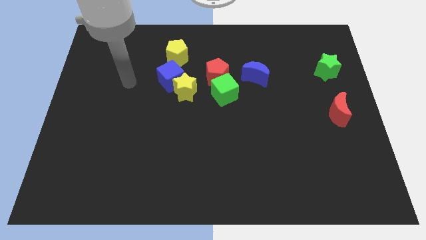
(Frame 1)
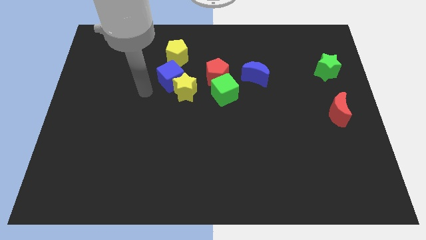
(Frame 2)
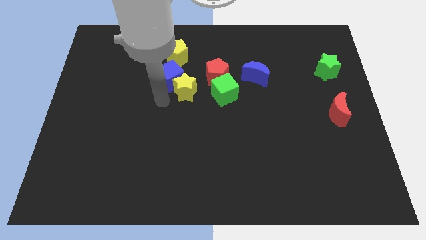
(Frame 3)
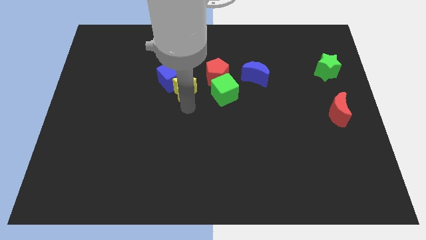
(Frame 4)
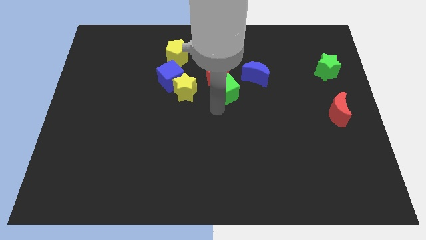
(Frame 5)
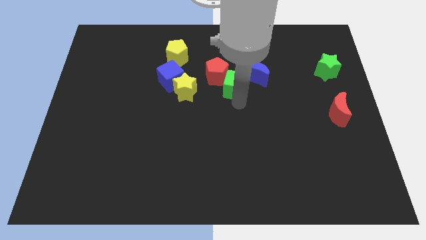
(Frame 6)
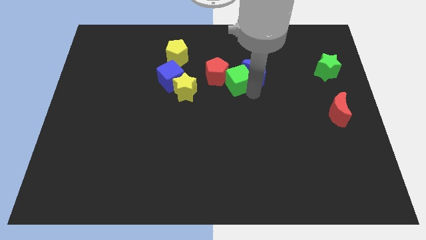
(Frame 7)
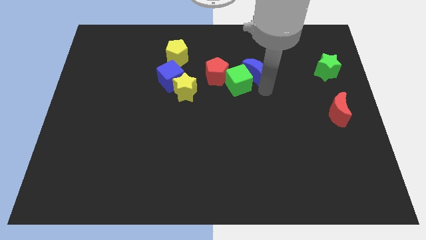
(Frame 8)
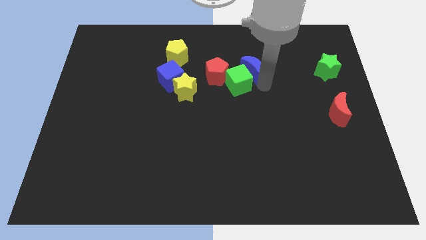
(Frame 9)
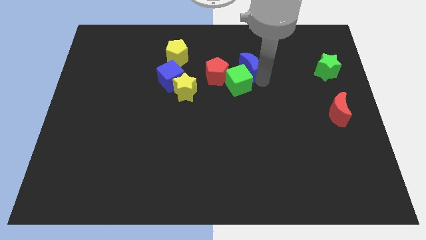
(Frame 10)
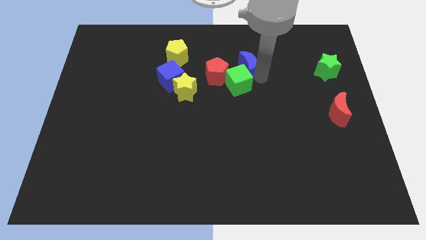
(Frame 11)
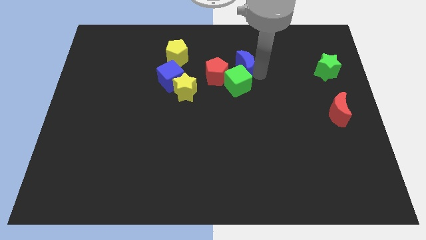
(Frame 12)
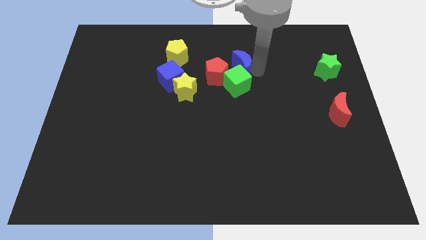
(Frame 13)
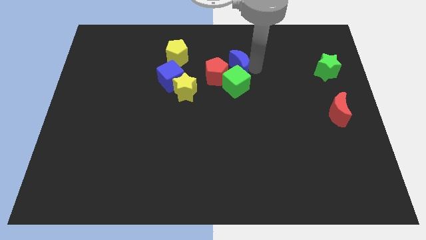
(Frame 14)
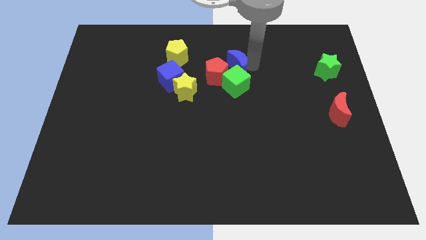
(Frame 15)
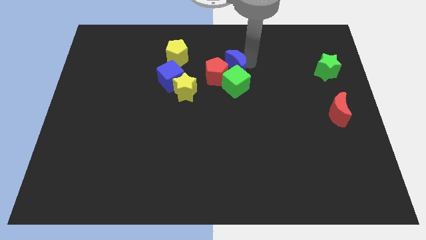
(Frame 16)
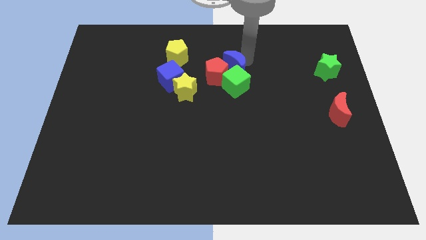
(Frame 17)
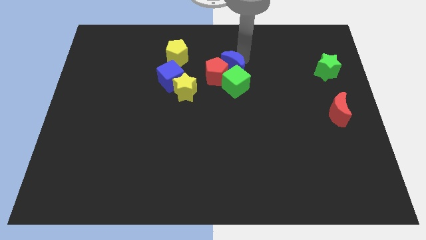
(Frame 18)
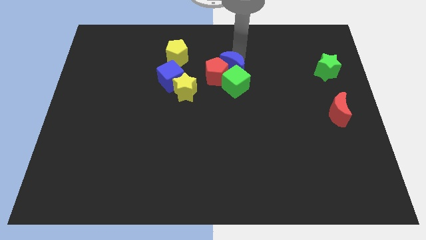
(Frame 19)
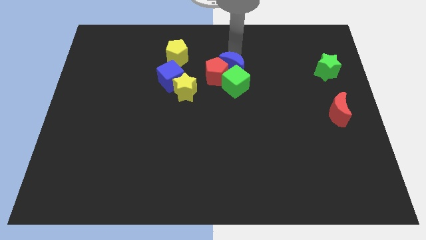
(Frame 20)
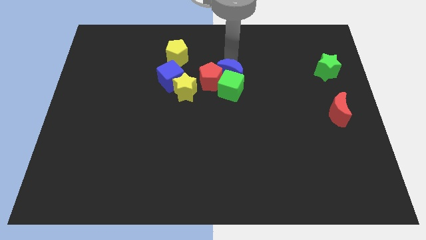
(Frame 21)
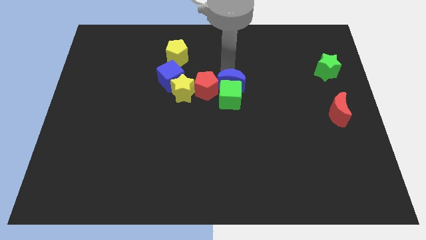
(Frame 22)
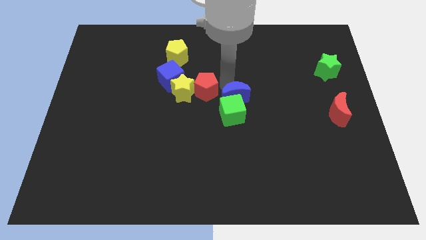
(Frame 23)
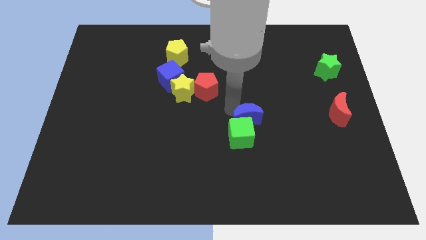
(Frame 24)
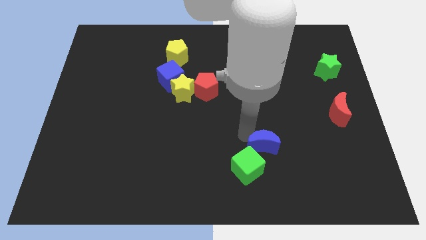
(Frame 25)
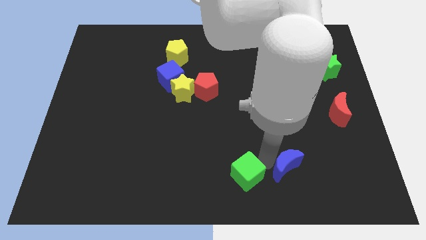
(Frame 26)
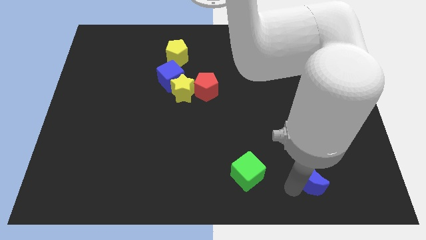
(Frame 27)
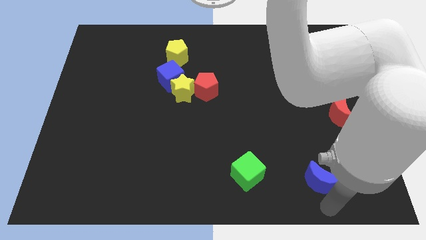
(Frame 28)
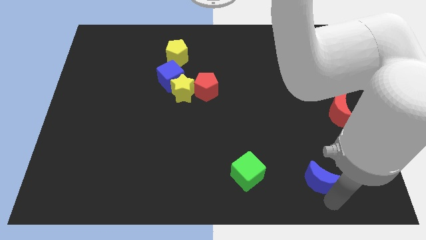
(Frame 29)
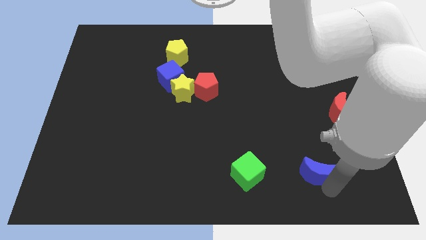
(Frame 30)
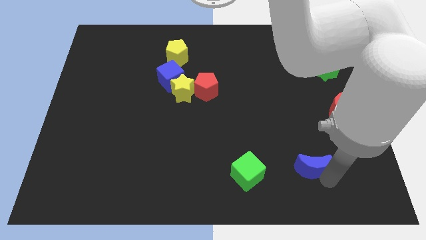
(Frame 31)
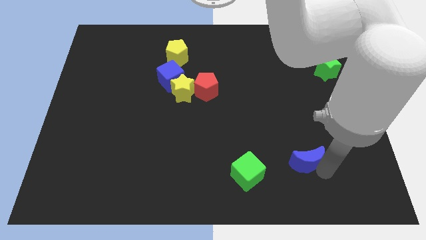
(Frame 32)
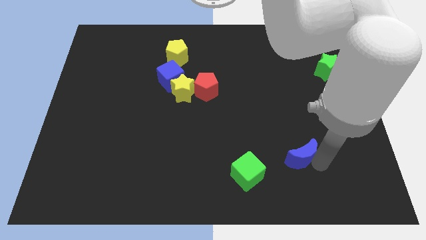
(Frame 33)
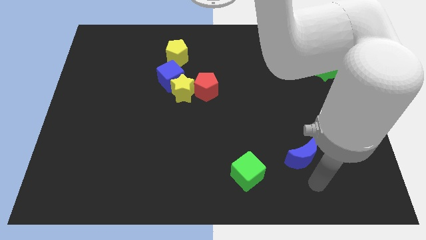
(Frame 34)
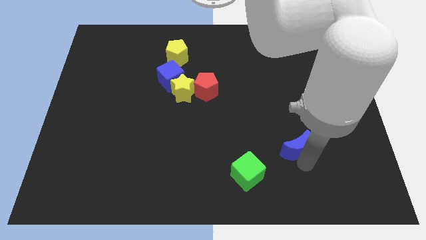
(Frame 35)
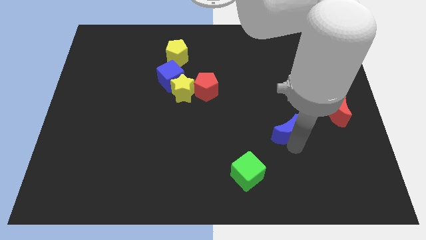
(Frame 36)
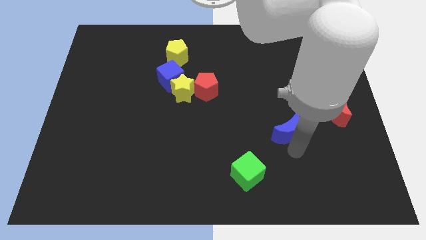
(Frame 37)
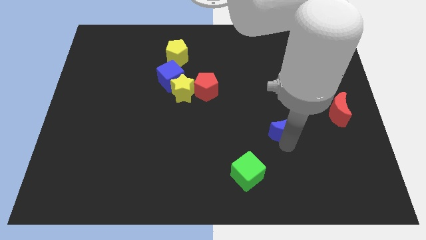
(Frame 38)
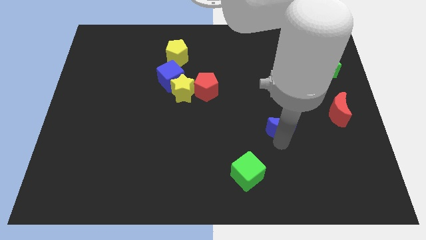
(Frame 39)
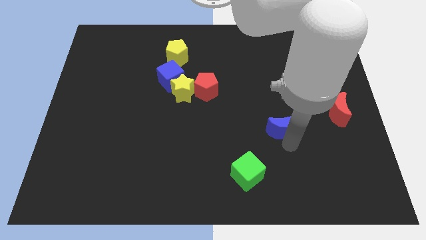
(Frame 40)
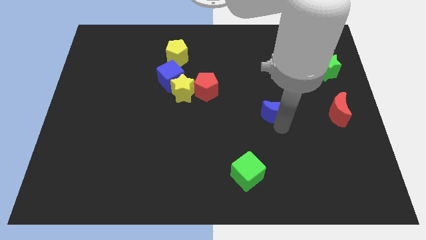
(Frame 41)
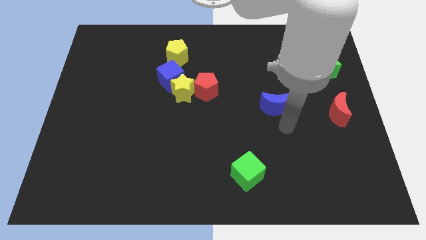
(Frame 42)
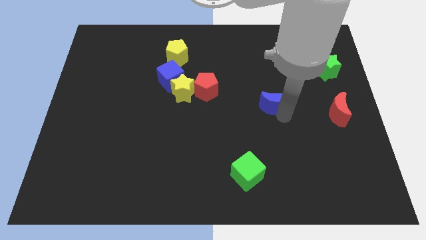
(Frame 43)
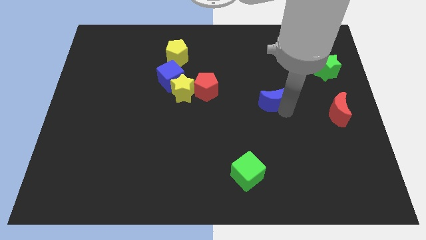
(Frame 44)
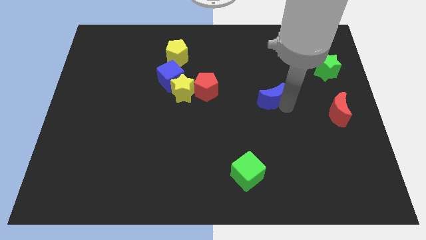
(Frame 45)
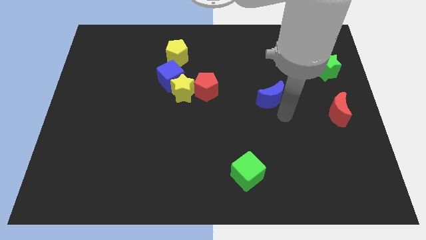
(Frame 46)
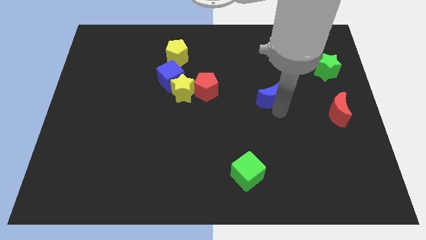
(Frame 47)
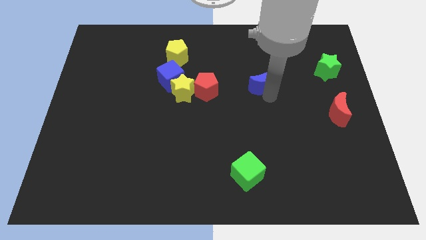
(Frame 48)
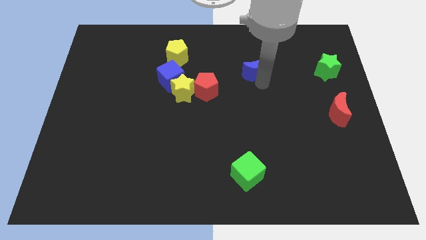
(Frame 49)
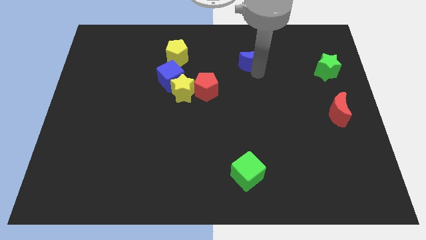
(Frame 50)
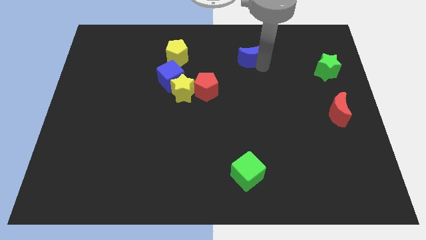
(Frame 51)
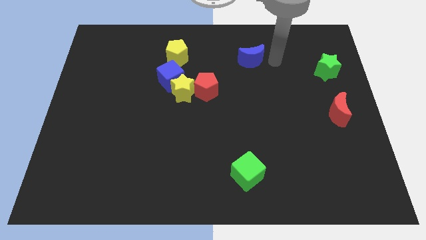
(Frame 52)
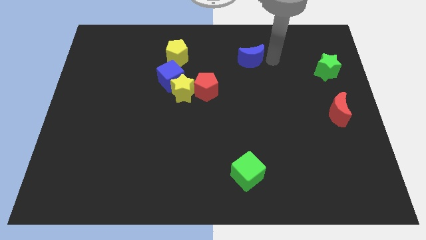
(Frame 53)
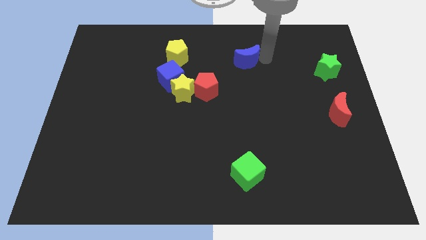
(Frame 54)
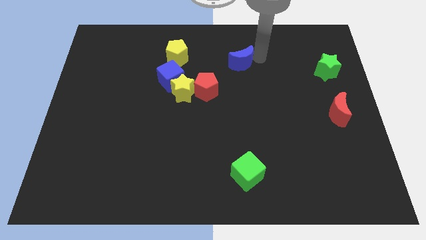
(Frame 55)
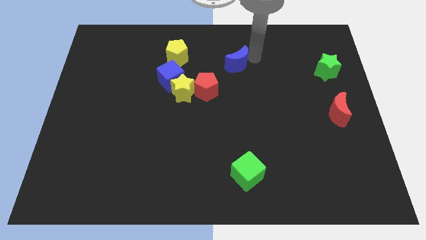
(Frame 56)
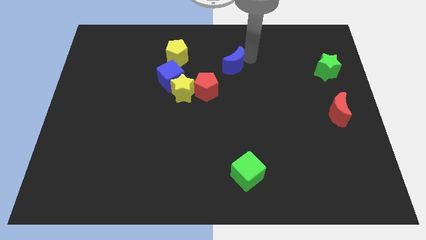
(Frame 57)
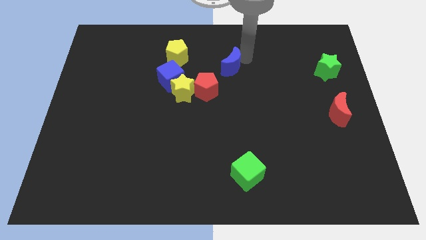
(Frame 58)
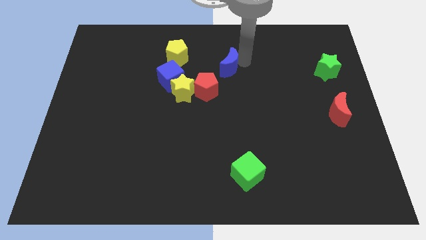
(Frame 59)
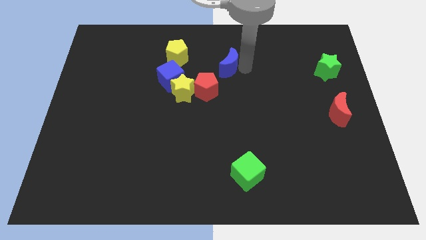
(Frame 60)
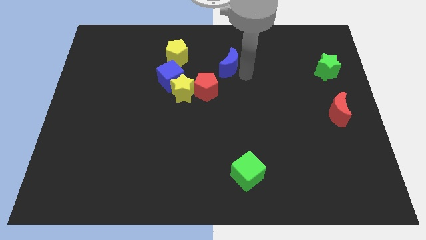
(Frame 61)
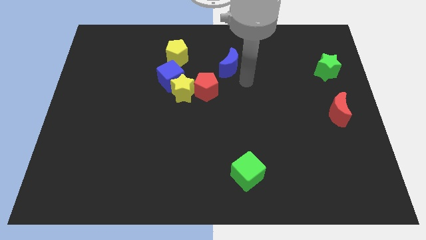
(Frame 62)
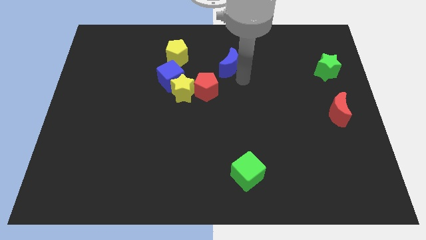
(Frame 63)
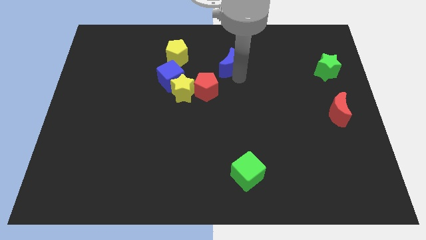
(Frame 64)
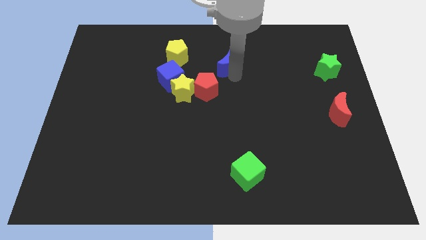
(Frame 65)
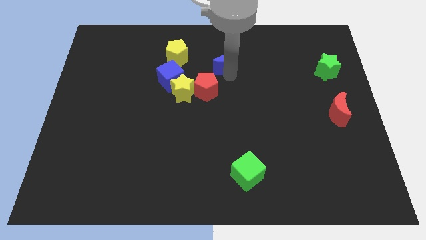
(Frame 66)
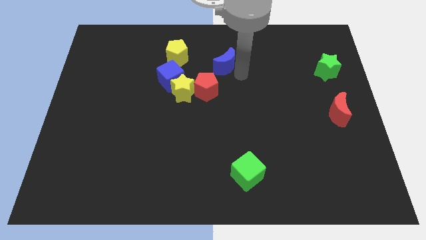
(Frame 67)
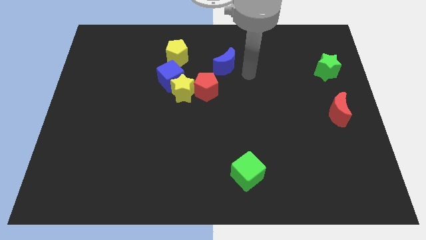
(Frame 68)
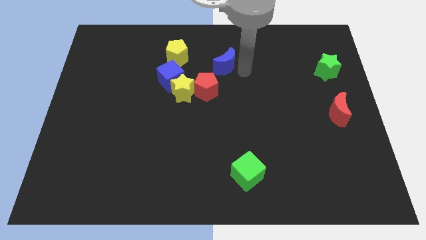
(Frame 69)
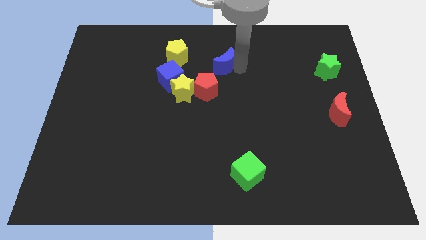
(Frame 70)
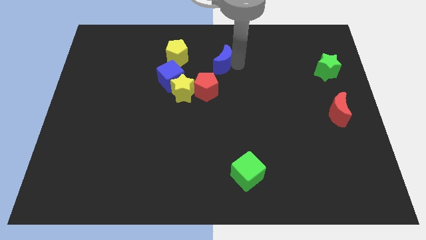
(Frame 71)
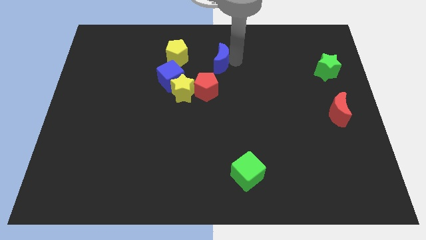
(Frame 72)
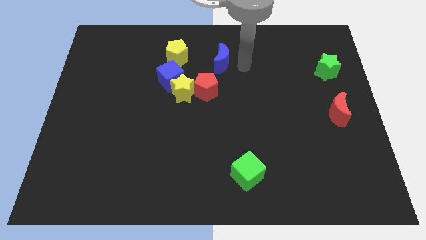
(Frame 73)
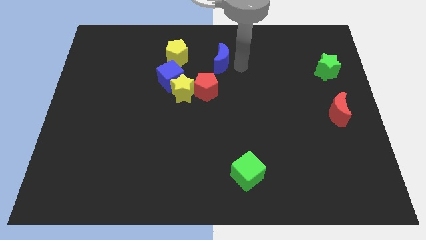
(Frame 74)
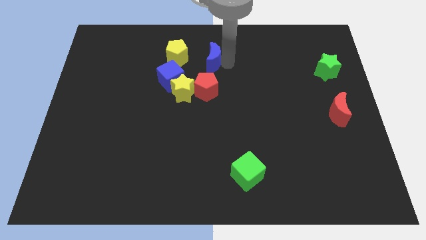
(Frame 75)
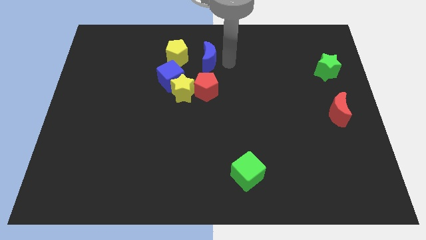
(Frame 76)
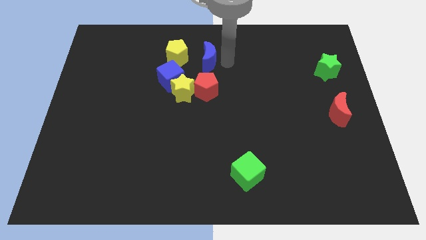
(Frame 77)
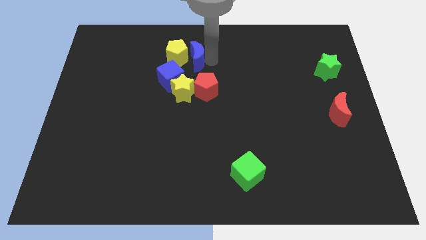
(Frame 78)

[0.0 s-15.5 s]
put the blue moon towards the yellow pentagon
